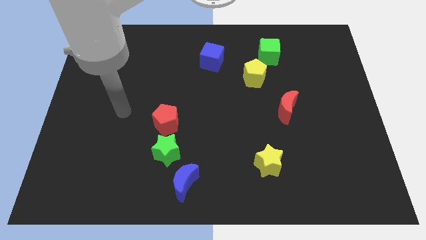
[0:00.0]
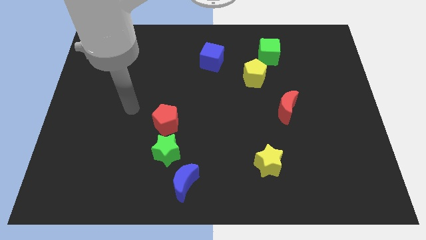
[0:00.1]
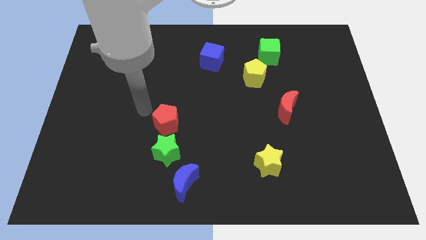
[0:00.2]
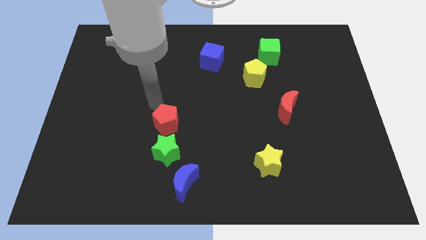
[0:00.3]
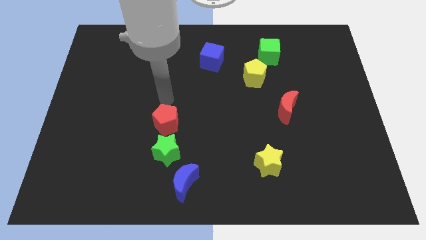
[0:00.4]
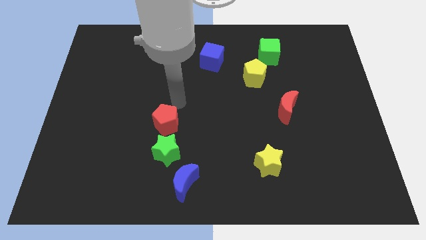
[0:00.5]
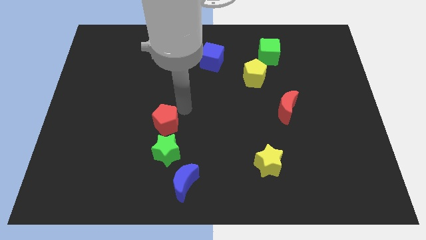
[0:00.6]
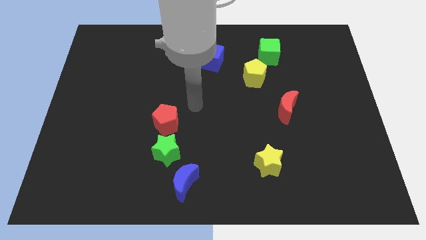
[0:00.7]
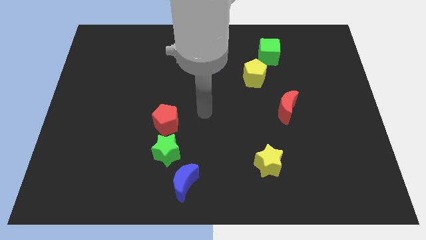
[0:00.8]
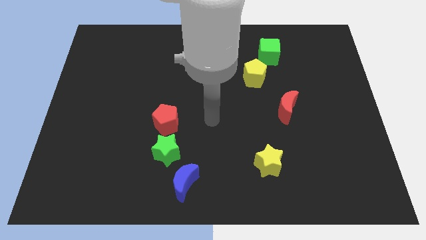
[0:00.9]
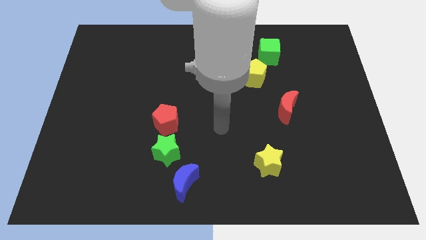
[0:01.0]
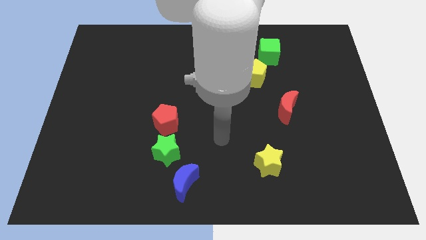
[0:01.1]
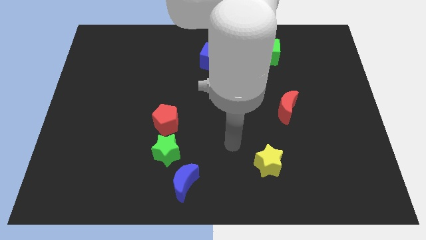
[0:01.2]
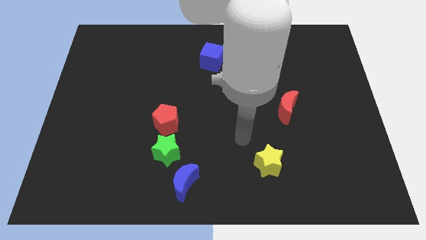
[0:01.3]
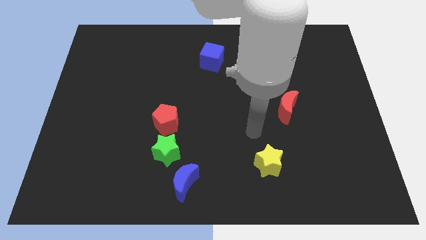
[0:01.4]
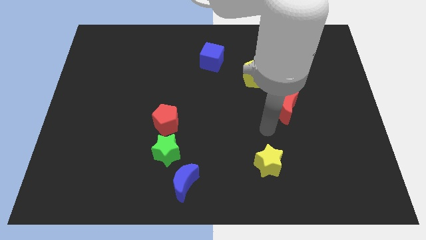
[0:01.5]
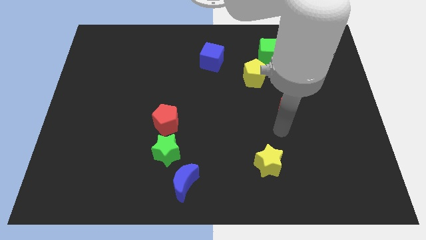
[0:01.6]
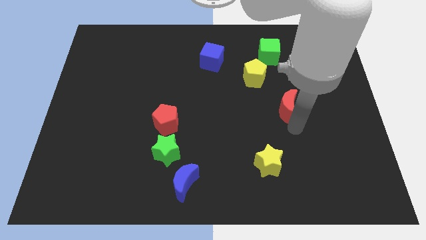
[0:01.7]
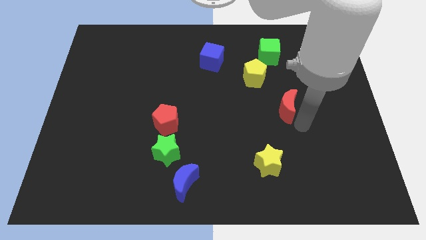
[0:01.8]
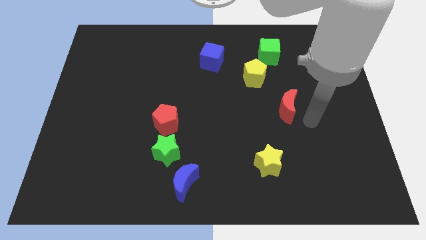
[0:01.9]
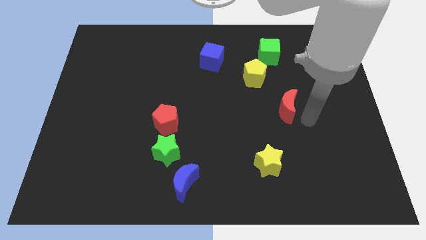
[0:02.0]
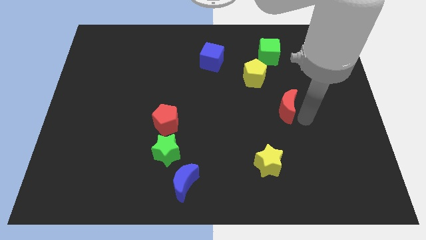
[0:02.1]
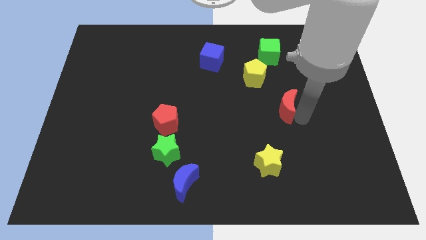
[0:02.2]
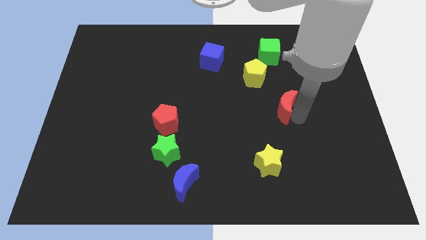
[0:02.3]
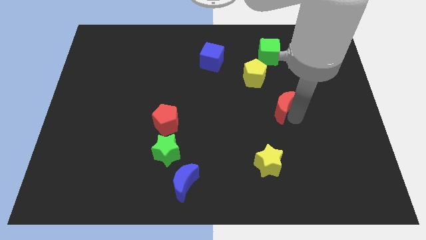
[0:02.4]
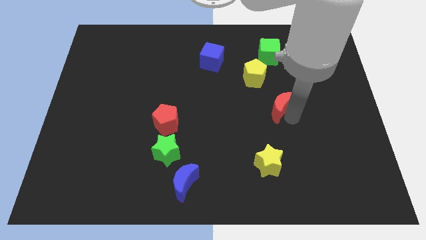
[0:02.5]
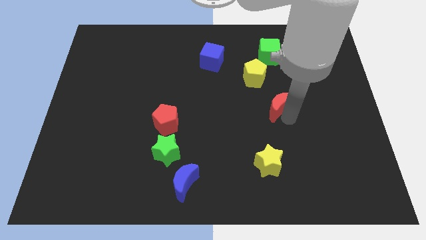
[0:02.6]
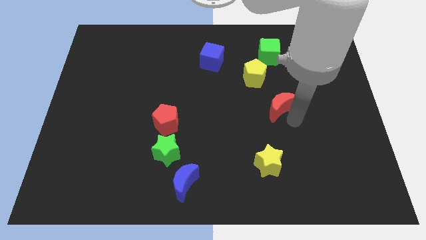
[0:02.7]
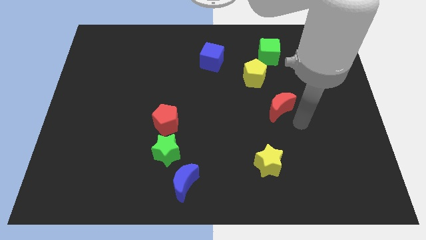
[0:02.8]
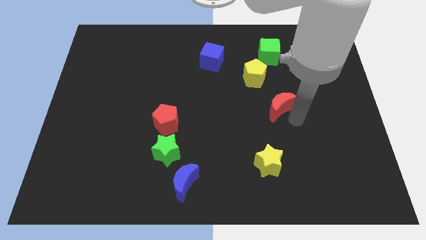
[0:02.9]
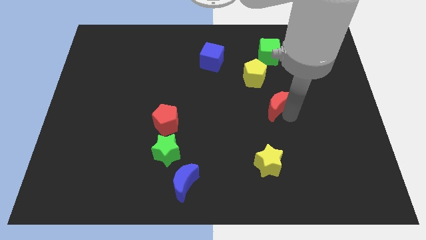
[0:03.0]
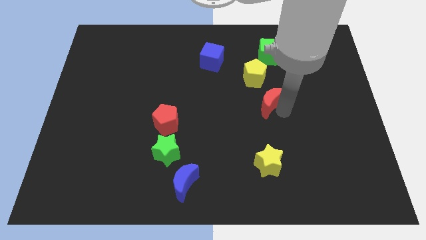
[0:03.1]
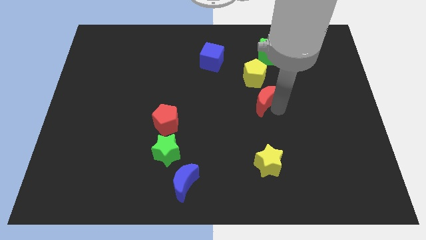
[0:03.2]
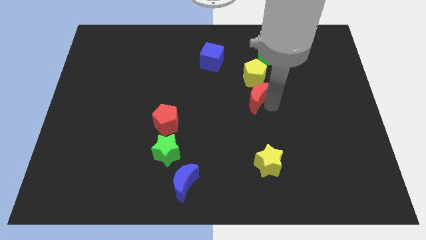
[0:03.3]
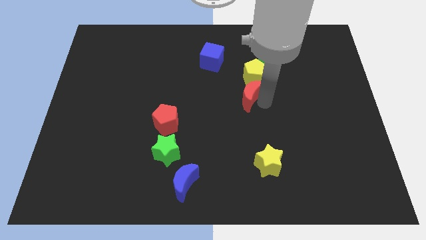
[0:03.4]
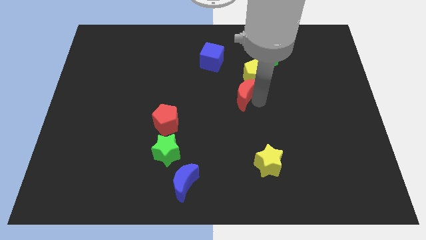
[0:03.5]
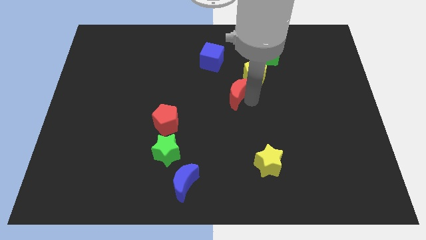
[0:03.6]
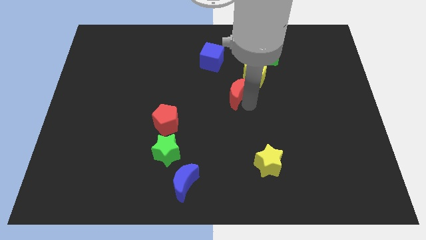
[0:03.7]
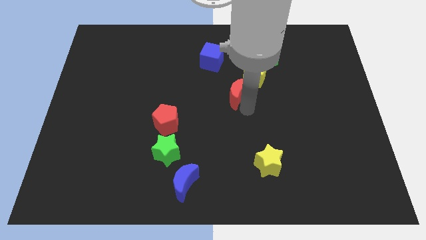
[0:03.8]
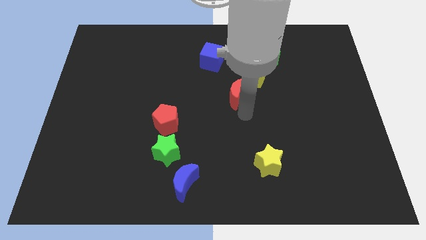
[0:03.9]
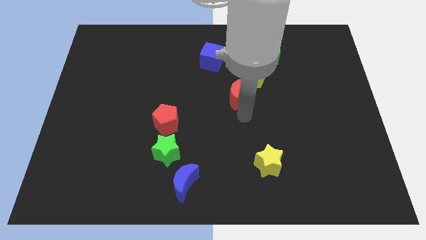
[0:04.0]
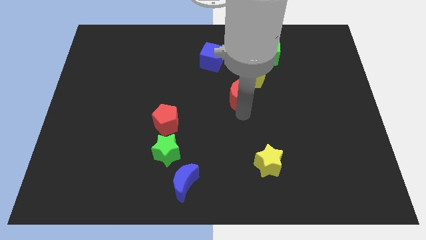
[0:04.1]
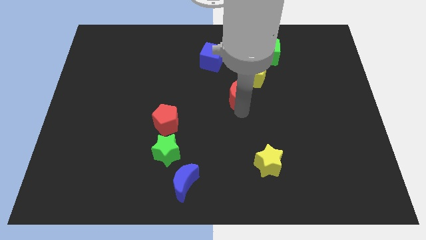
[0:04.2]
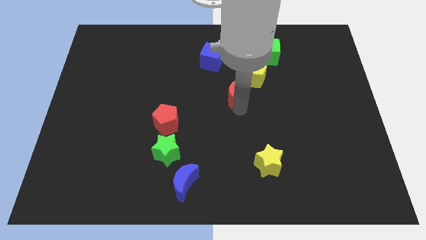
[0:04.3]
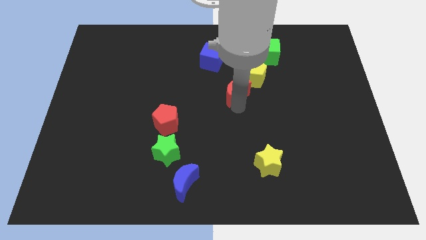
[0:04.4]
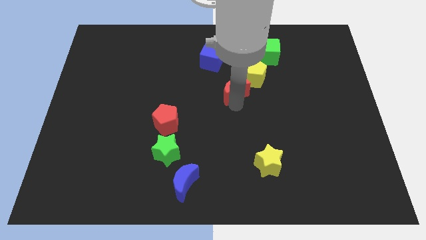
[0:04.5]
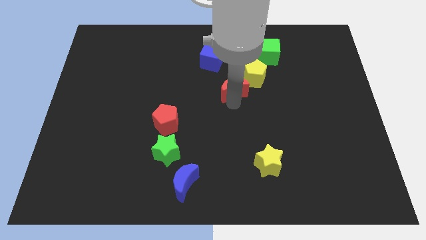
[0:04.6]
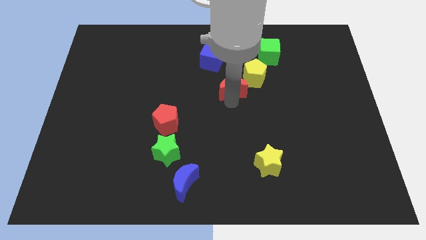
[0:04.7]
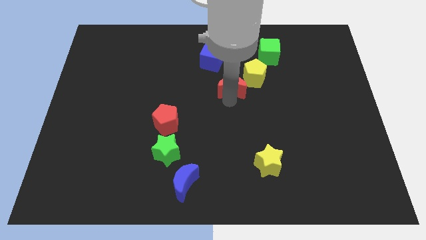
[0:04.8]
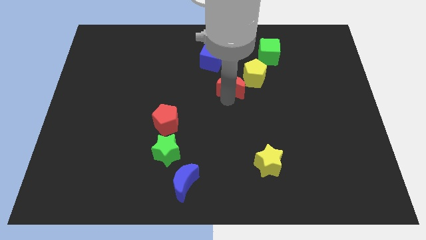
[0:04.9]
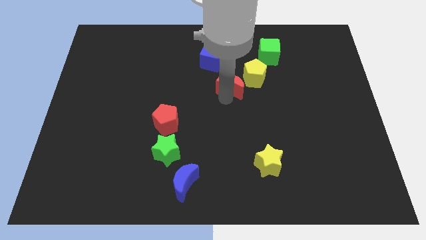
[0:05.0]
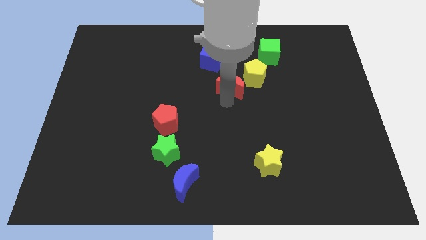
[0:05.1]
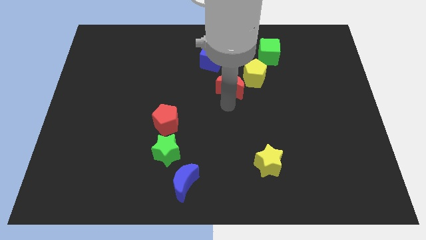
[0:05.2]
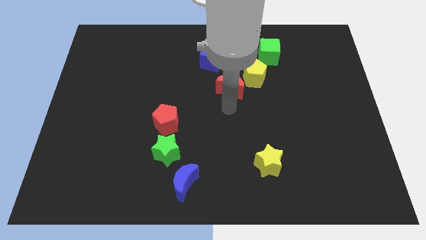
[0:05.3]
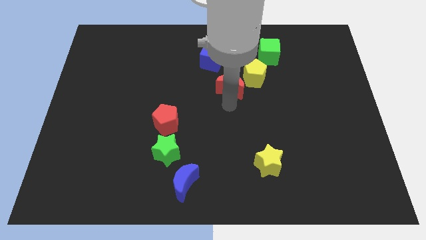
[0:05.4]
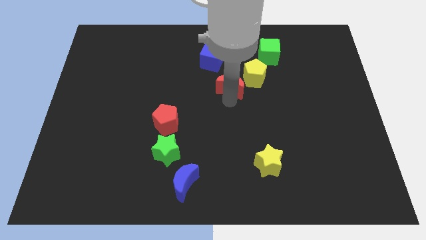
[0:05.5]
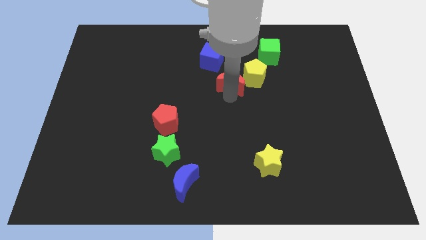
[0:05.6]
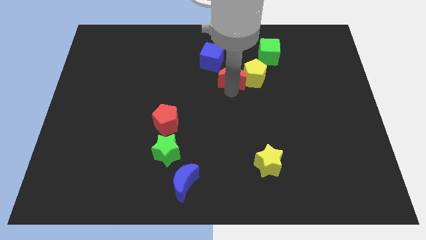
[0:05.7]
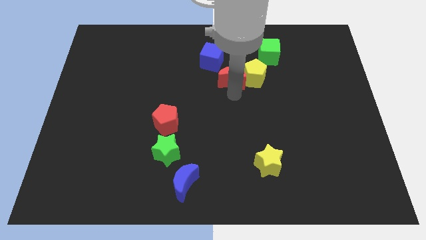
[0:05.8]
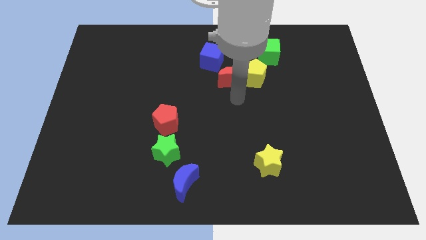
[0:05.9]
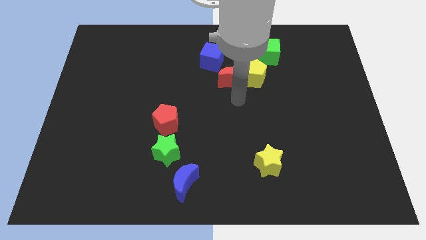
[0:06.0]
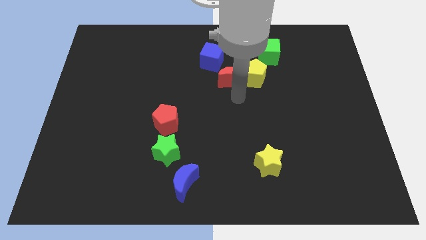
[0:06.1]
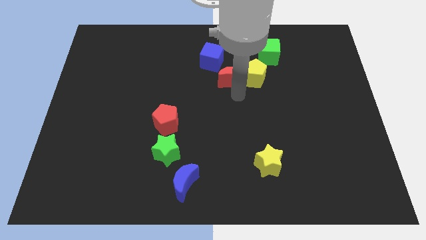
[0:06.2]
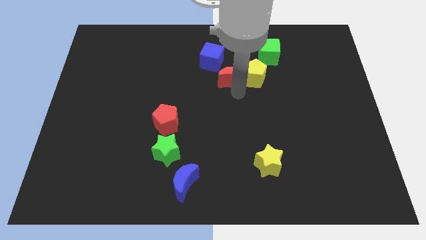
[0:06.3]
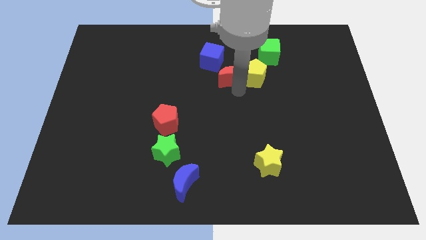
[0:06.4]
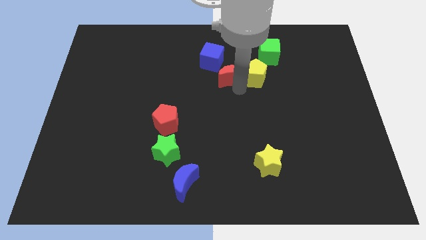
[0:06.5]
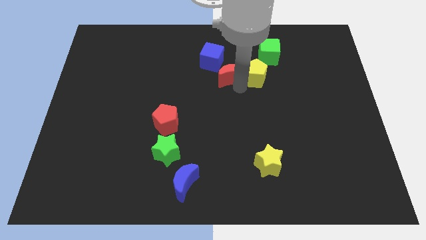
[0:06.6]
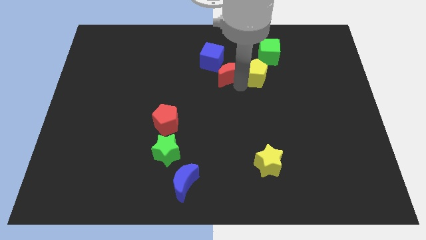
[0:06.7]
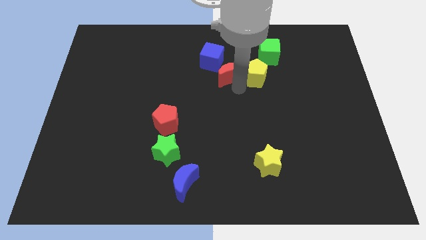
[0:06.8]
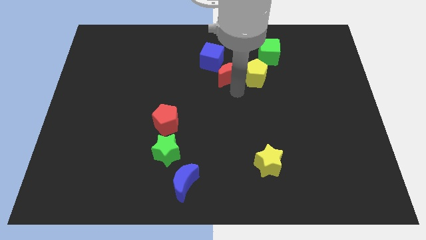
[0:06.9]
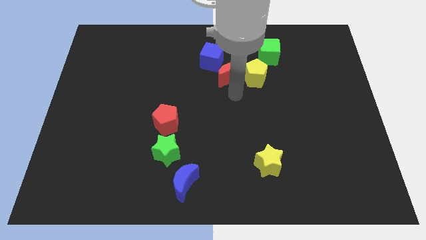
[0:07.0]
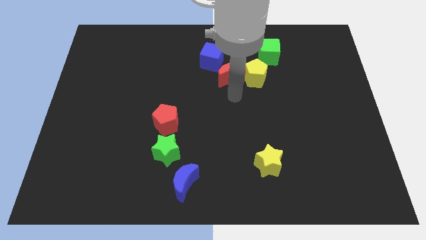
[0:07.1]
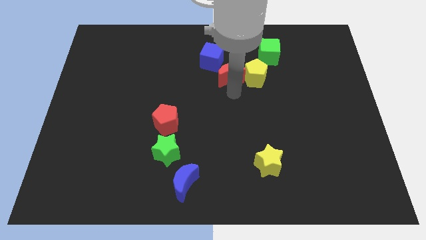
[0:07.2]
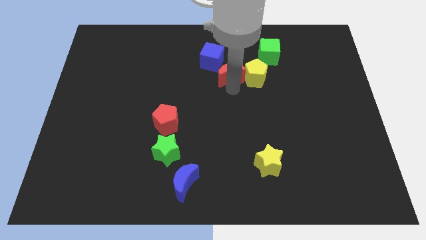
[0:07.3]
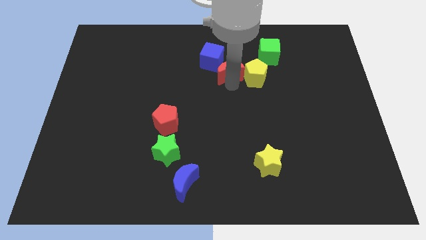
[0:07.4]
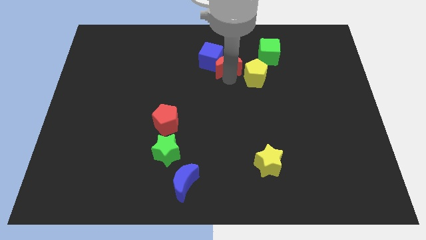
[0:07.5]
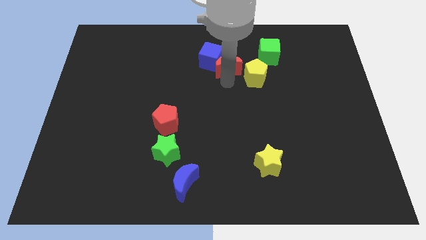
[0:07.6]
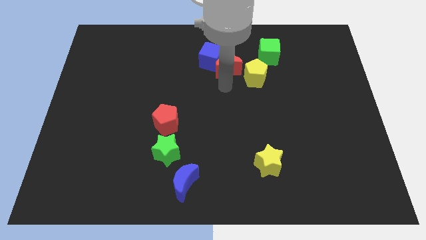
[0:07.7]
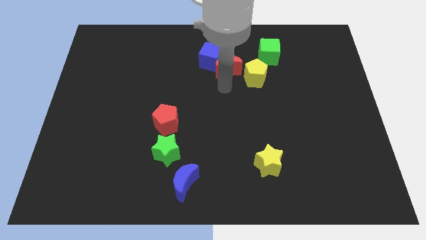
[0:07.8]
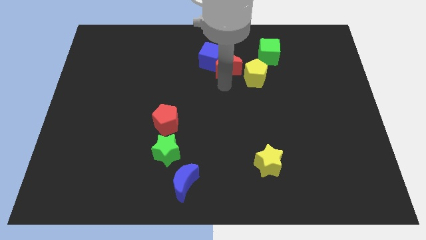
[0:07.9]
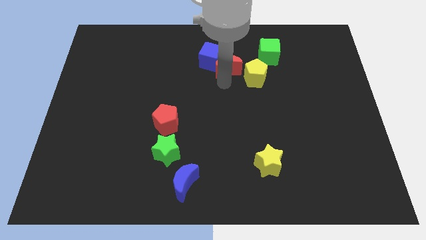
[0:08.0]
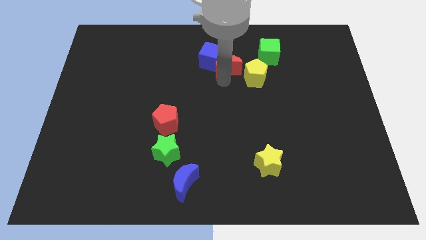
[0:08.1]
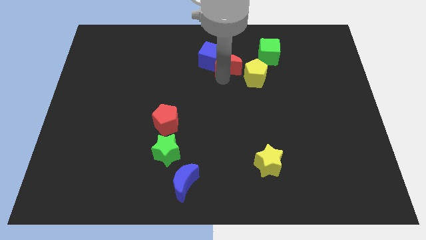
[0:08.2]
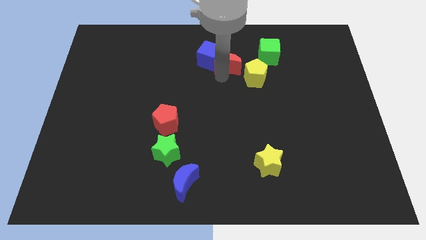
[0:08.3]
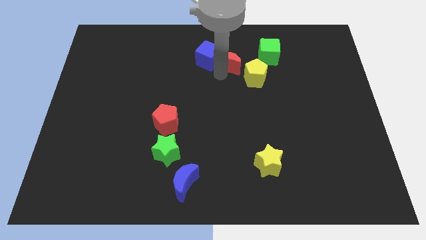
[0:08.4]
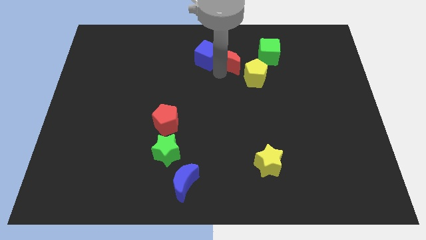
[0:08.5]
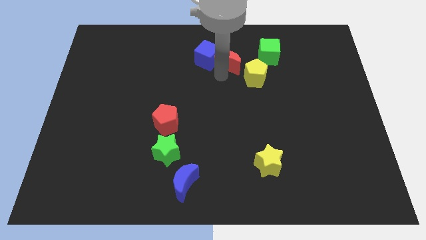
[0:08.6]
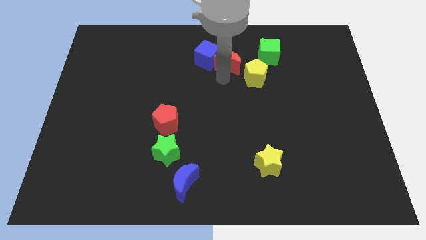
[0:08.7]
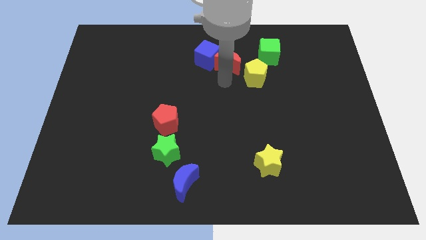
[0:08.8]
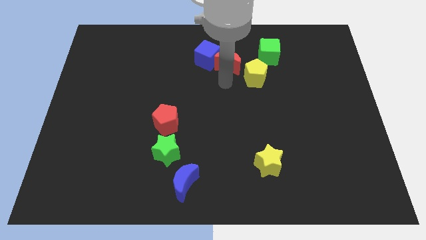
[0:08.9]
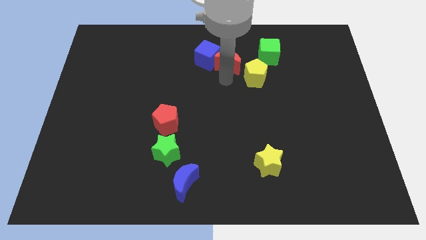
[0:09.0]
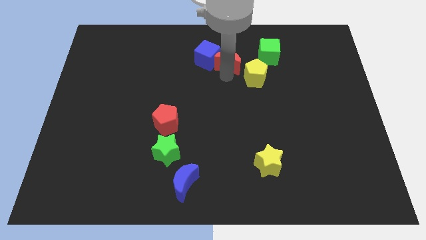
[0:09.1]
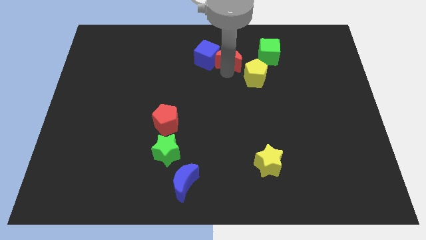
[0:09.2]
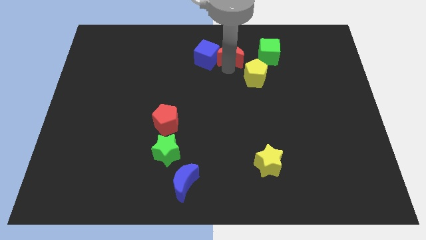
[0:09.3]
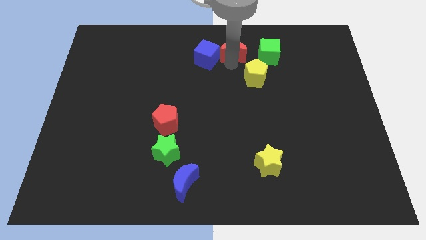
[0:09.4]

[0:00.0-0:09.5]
slide the red moon to the top
